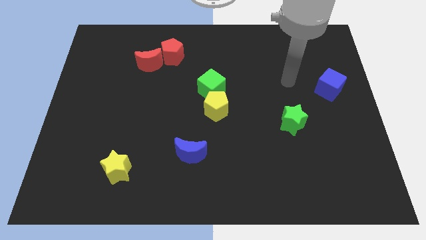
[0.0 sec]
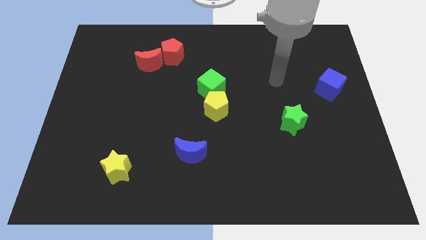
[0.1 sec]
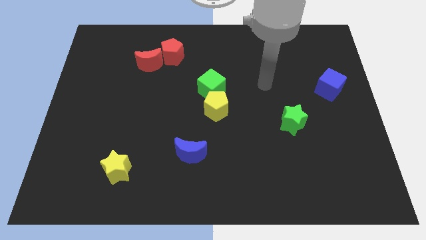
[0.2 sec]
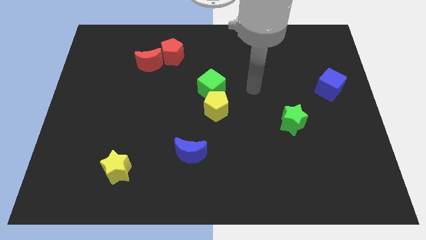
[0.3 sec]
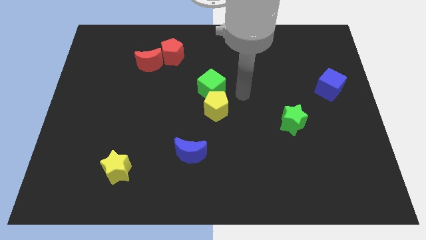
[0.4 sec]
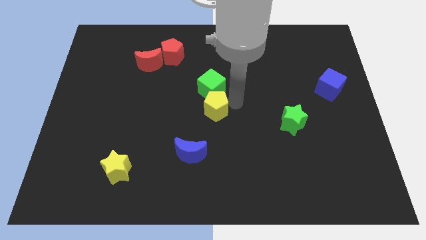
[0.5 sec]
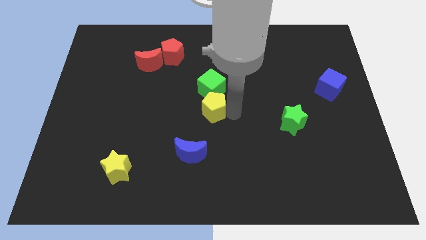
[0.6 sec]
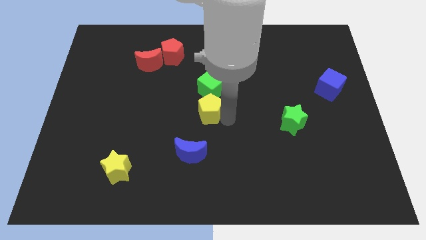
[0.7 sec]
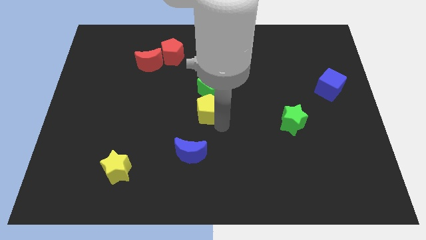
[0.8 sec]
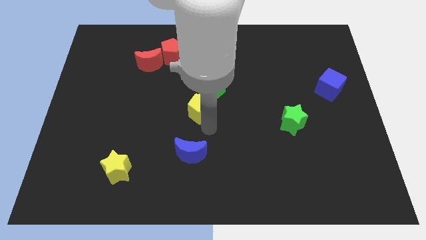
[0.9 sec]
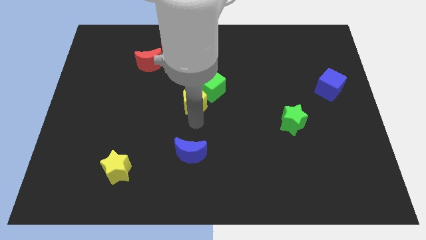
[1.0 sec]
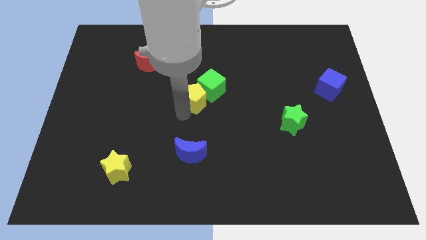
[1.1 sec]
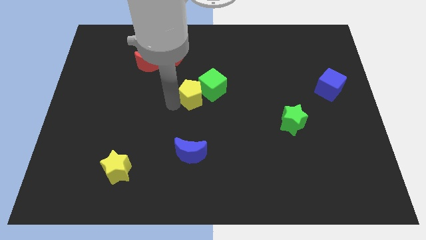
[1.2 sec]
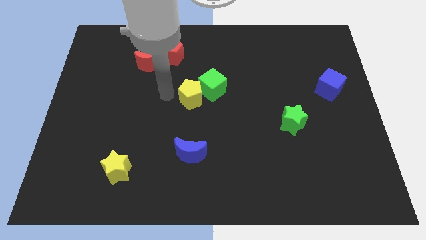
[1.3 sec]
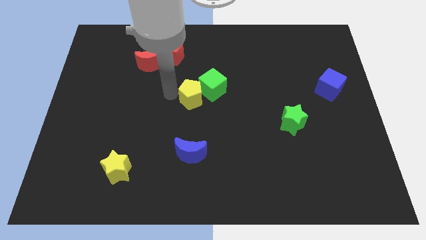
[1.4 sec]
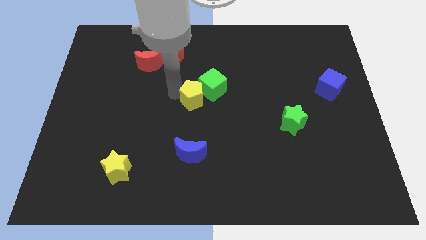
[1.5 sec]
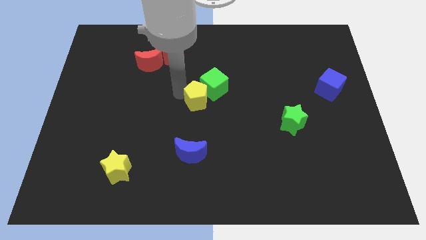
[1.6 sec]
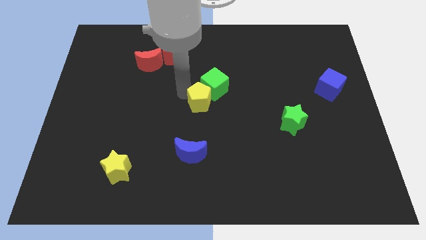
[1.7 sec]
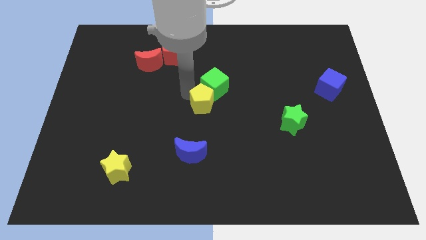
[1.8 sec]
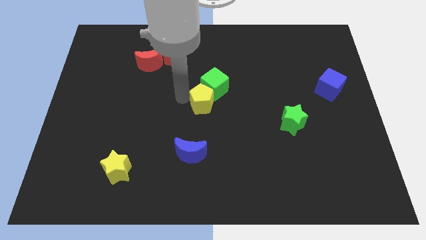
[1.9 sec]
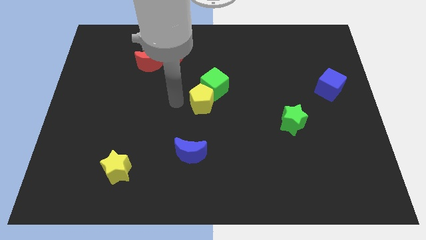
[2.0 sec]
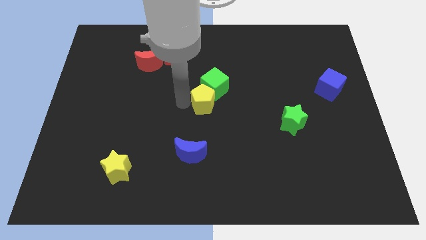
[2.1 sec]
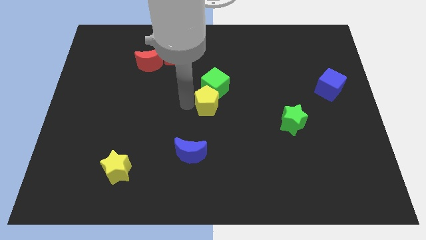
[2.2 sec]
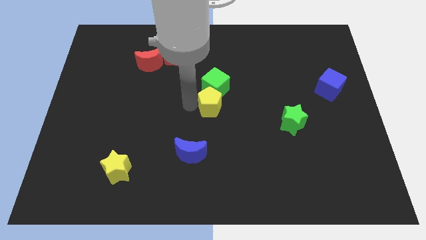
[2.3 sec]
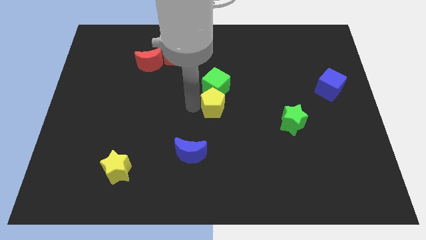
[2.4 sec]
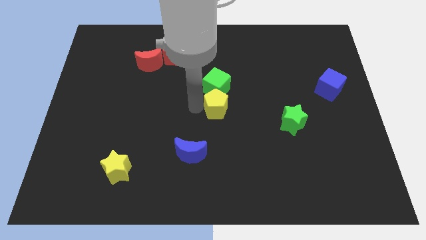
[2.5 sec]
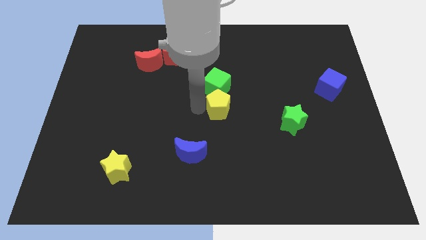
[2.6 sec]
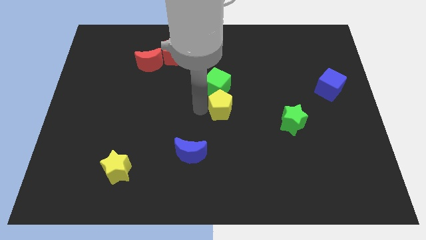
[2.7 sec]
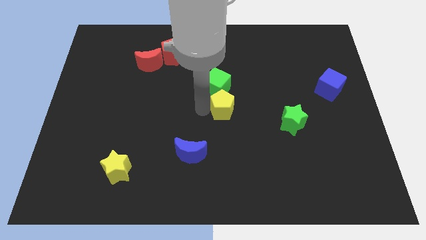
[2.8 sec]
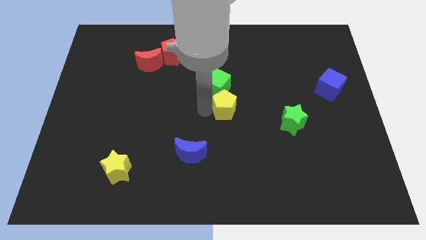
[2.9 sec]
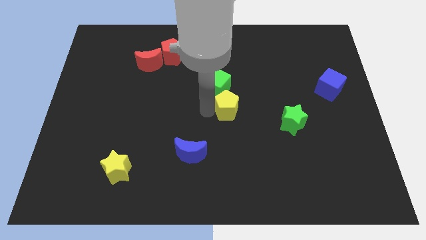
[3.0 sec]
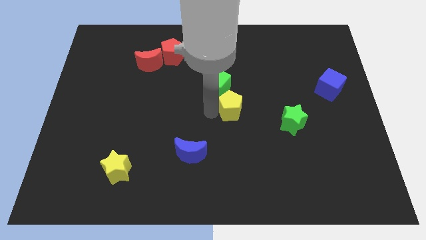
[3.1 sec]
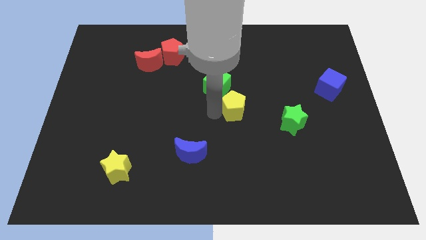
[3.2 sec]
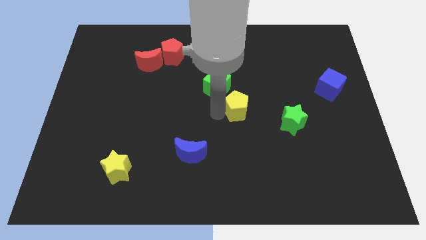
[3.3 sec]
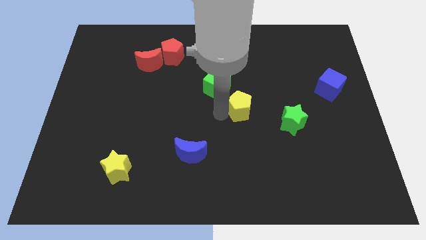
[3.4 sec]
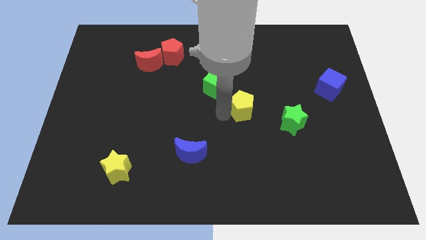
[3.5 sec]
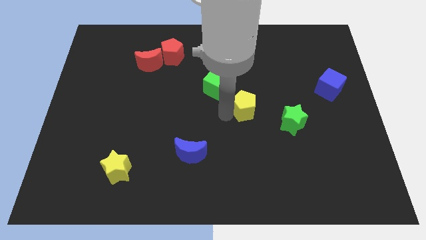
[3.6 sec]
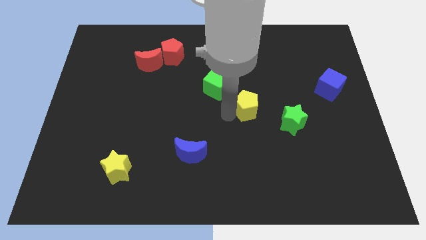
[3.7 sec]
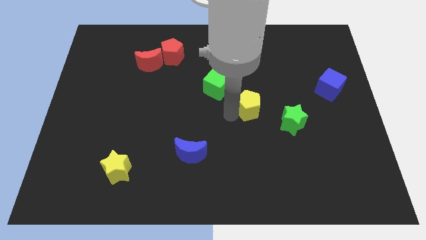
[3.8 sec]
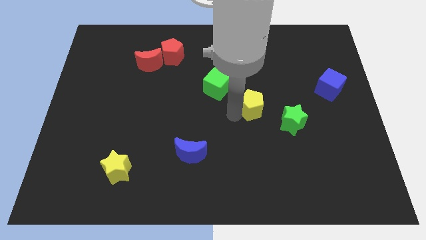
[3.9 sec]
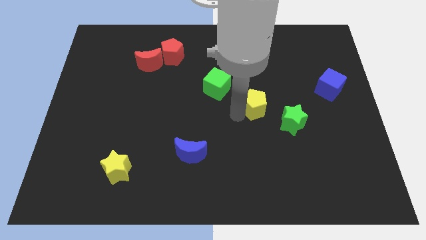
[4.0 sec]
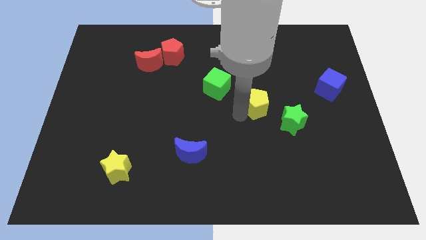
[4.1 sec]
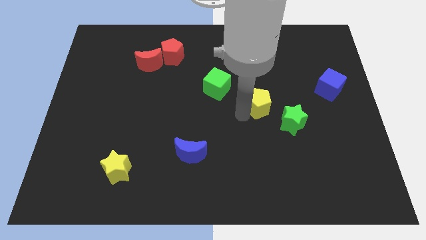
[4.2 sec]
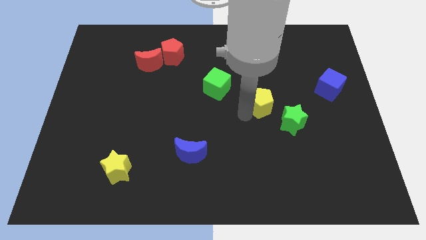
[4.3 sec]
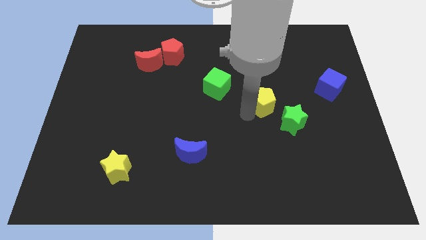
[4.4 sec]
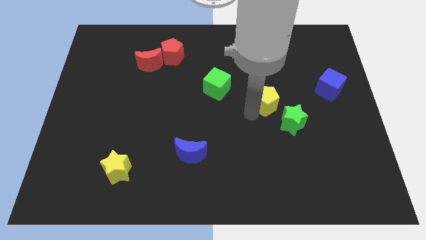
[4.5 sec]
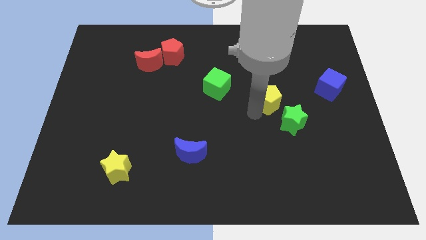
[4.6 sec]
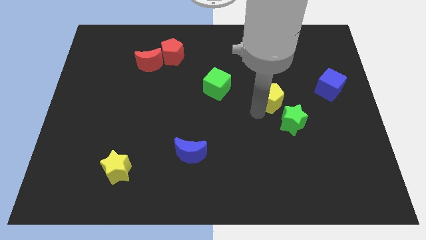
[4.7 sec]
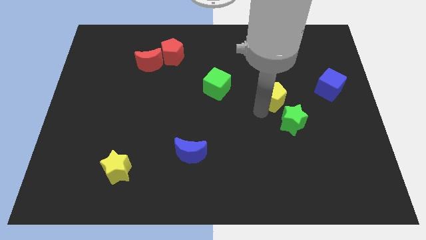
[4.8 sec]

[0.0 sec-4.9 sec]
slide the yellow pentagon left of the blue cube

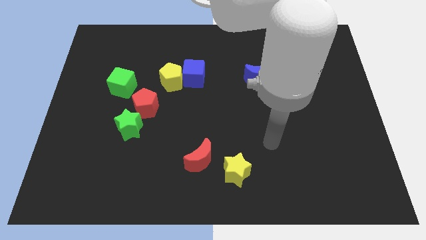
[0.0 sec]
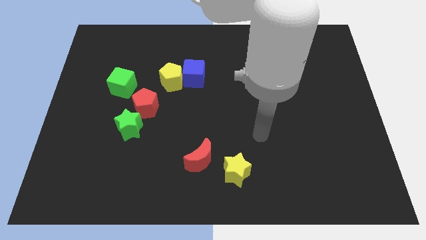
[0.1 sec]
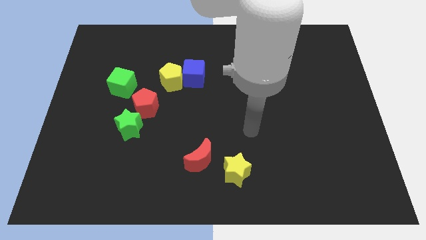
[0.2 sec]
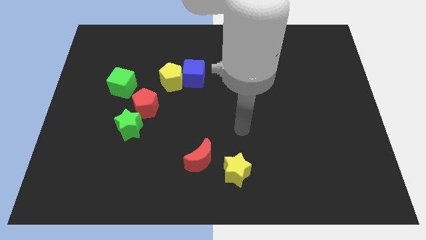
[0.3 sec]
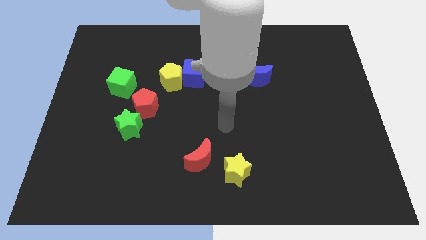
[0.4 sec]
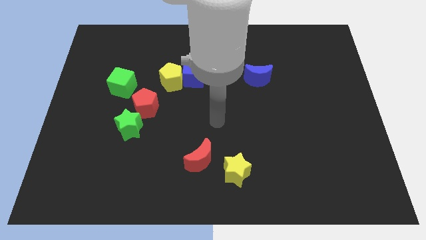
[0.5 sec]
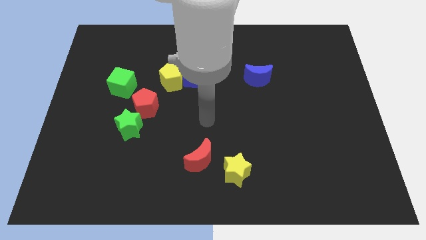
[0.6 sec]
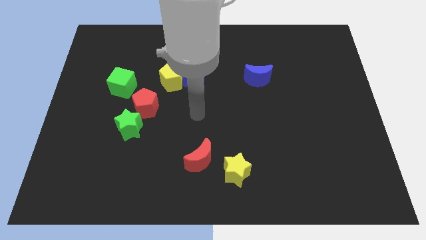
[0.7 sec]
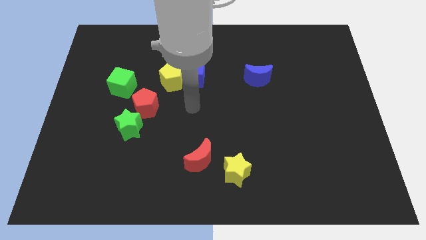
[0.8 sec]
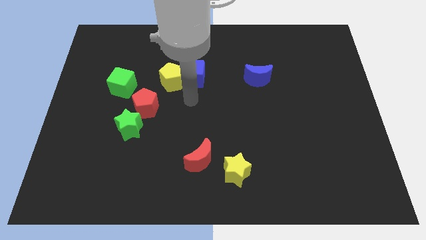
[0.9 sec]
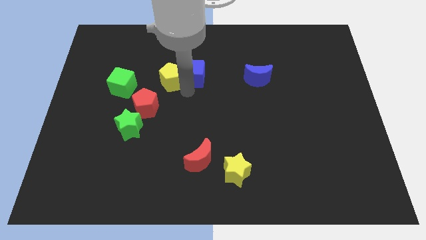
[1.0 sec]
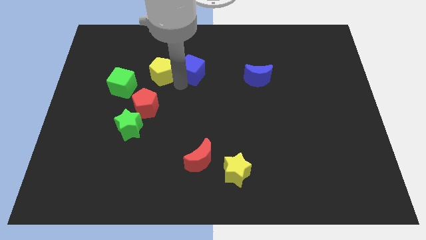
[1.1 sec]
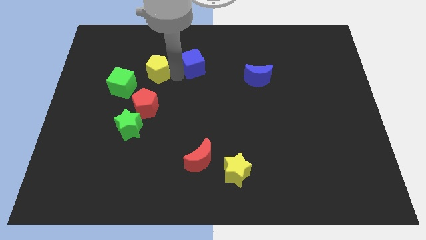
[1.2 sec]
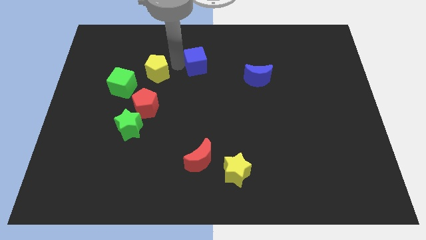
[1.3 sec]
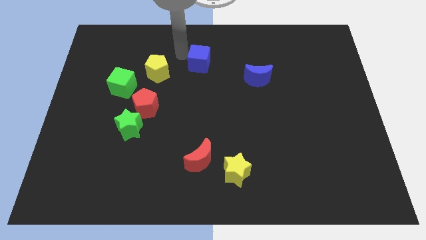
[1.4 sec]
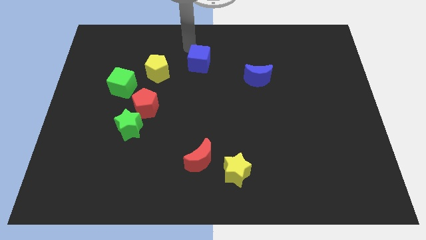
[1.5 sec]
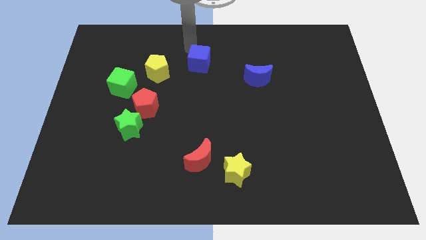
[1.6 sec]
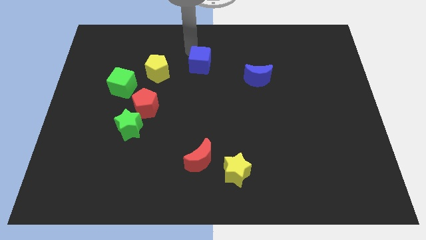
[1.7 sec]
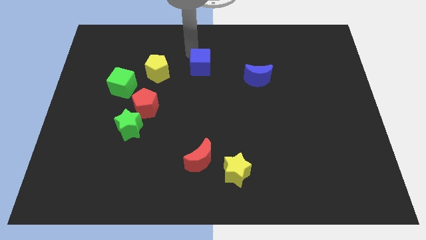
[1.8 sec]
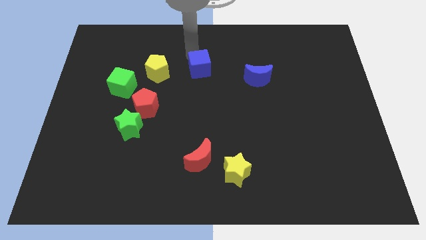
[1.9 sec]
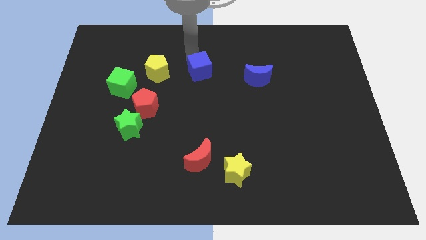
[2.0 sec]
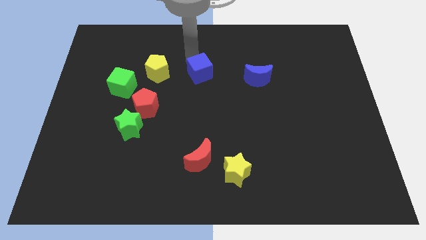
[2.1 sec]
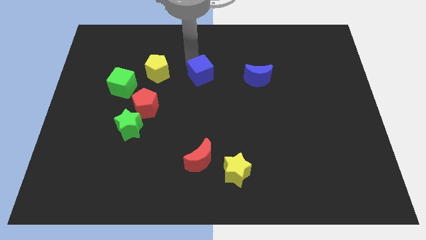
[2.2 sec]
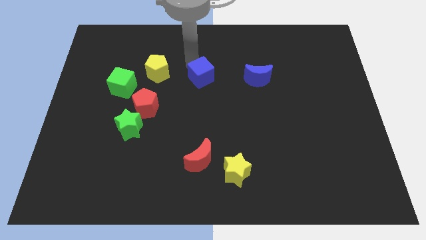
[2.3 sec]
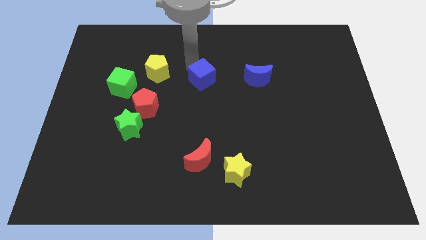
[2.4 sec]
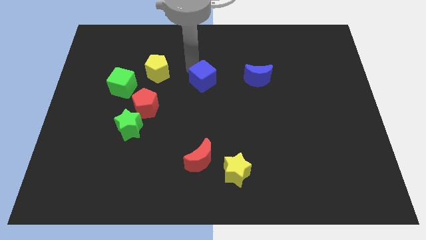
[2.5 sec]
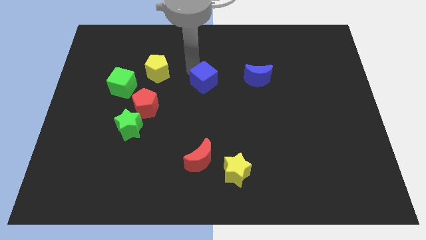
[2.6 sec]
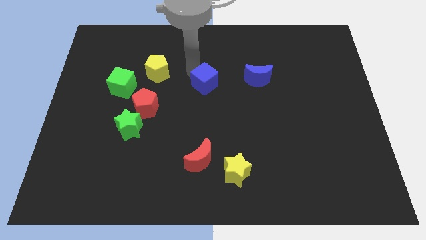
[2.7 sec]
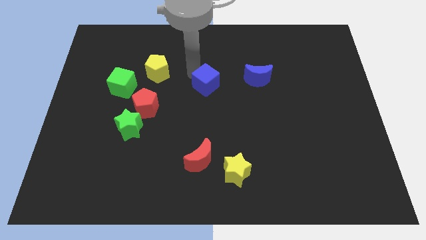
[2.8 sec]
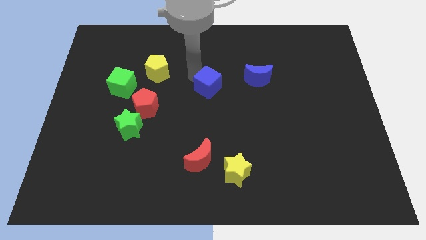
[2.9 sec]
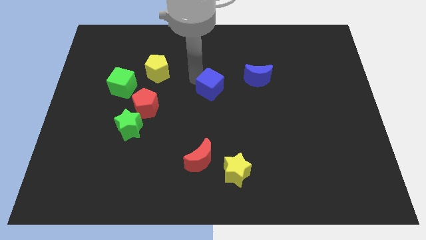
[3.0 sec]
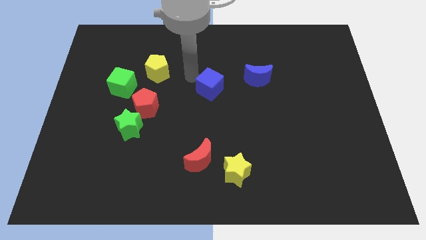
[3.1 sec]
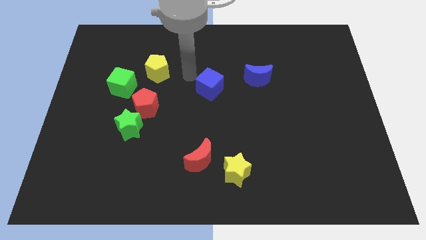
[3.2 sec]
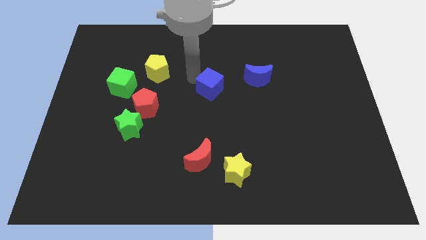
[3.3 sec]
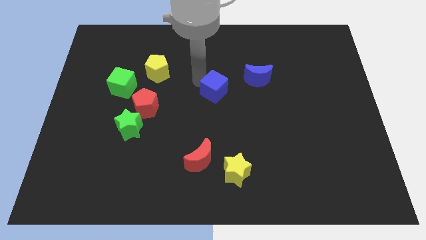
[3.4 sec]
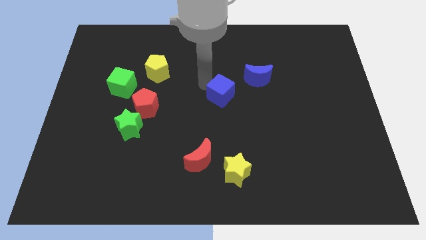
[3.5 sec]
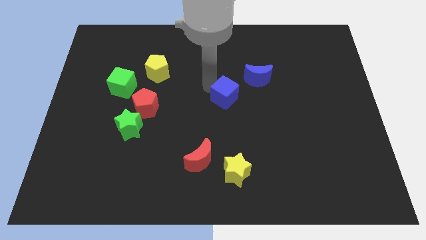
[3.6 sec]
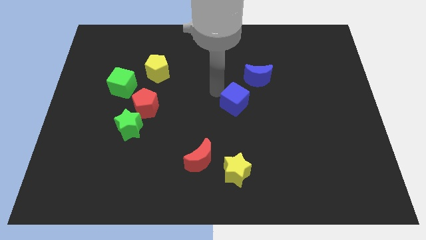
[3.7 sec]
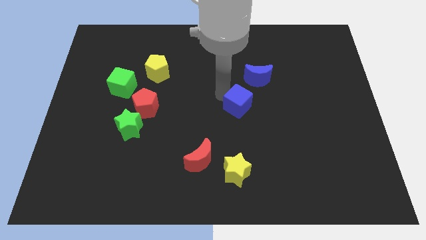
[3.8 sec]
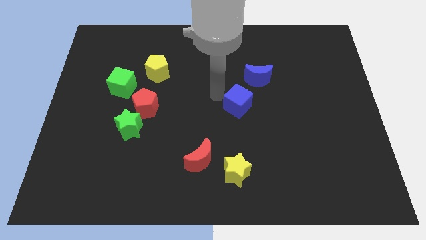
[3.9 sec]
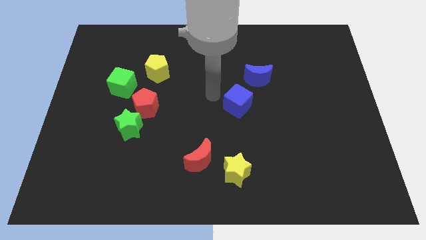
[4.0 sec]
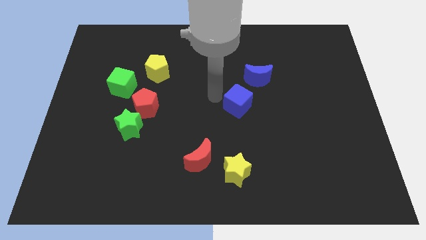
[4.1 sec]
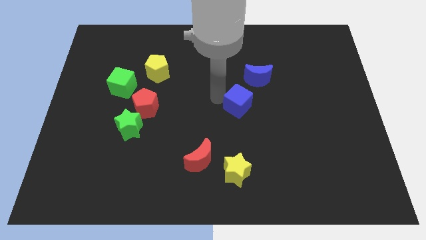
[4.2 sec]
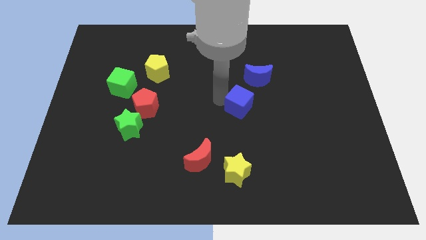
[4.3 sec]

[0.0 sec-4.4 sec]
put the blue cube to the bottom of the blue moon
